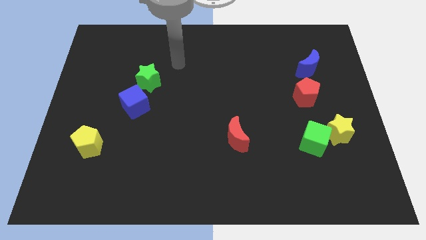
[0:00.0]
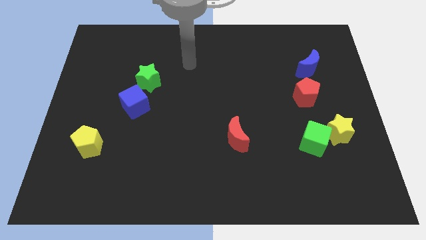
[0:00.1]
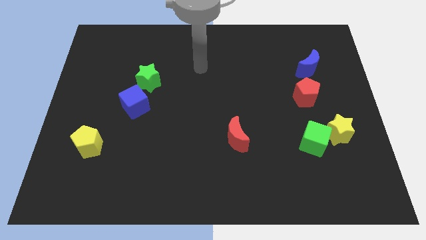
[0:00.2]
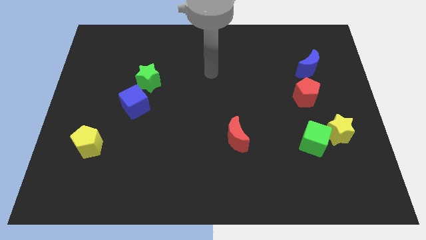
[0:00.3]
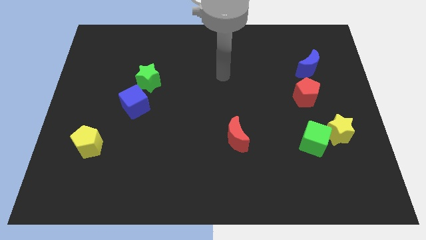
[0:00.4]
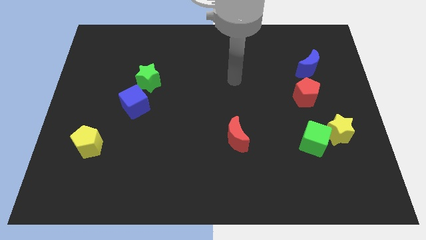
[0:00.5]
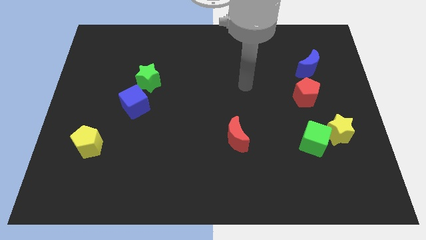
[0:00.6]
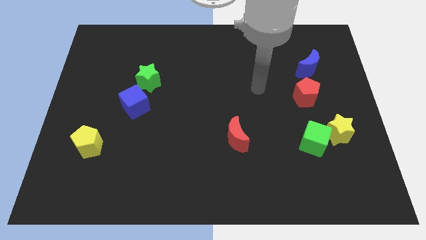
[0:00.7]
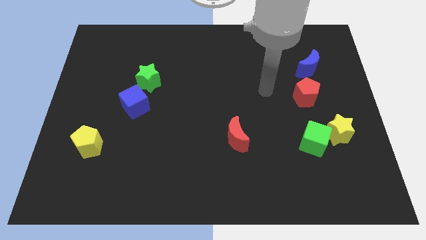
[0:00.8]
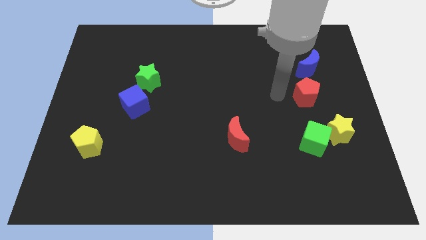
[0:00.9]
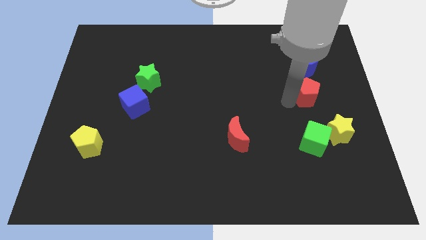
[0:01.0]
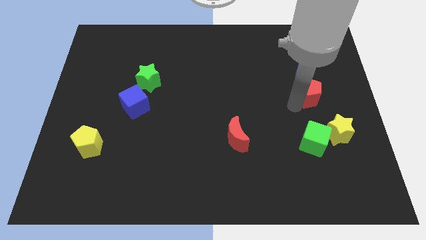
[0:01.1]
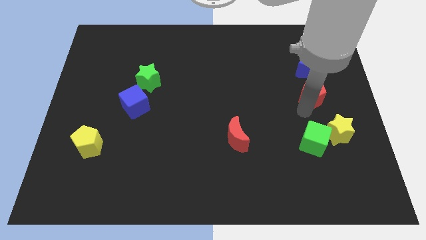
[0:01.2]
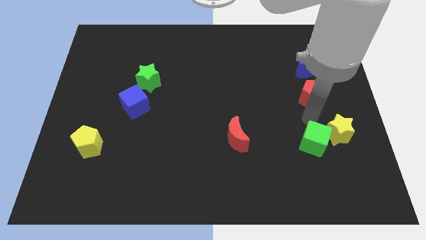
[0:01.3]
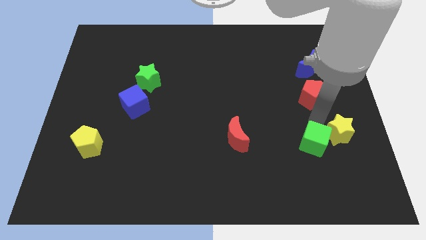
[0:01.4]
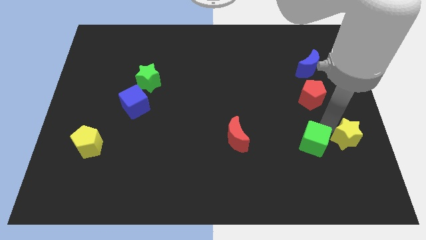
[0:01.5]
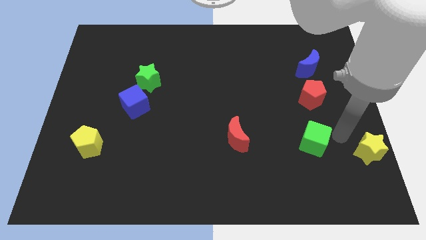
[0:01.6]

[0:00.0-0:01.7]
pull the green cube apart from the yellow star

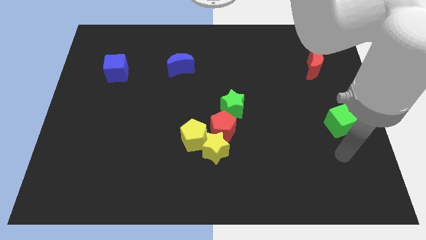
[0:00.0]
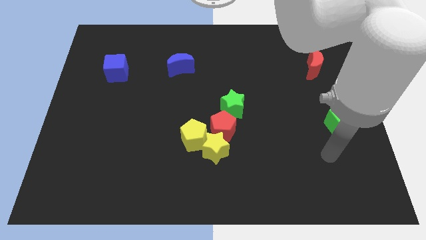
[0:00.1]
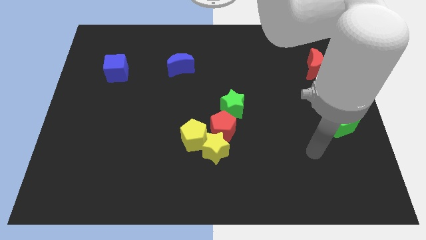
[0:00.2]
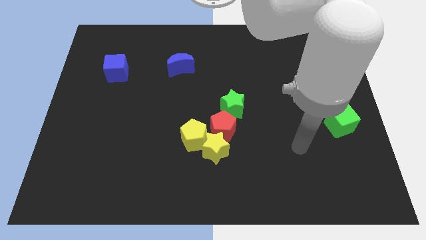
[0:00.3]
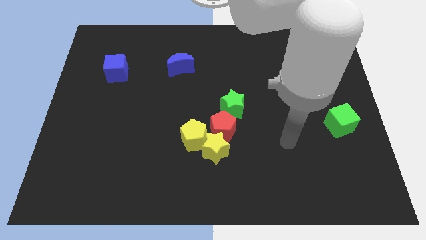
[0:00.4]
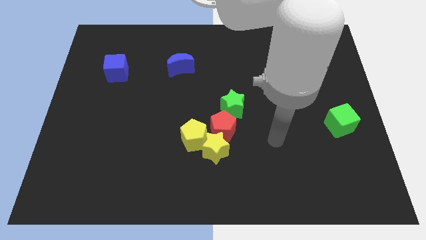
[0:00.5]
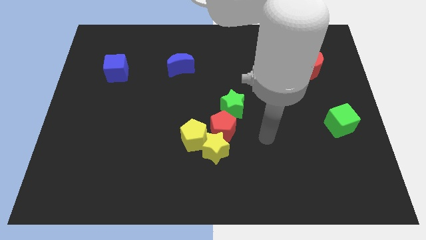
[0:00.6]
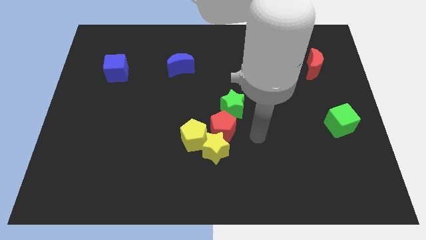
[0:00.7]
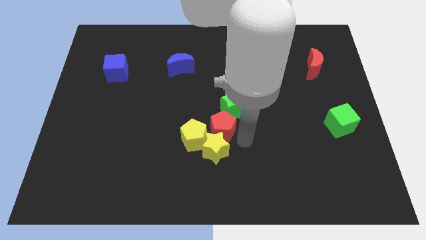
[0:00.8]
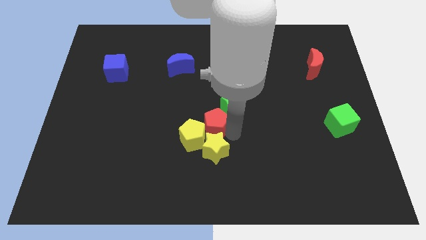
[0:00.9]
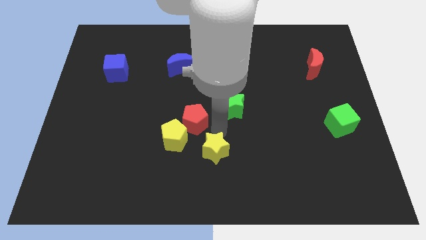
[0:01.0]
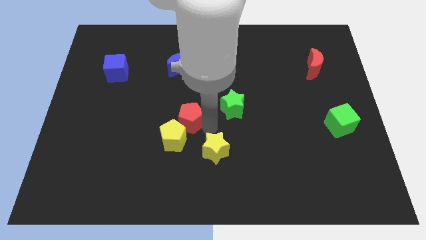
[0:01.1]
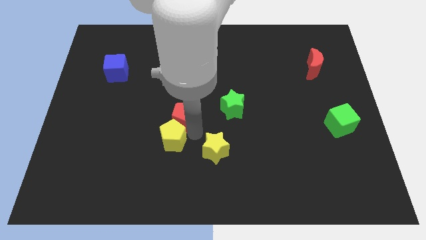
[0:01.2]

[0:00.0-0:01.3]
move the yellow star away from the red pentagon and yellow pentagon

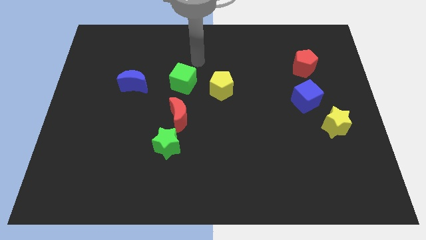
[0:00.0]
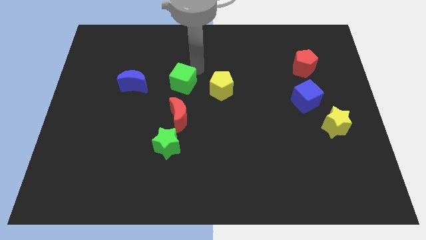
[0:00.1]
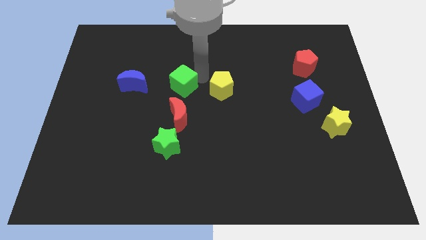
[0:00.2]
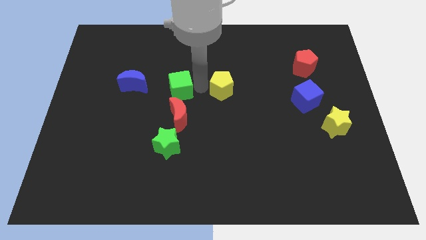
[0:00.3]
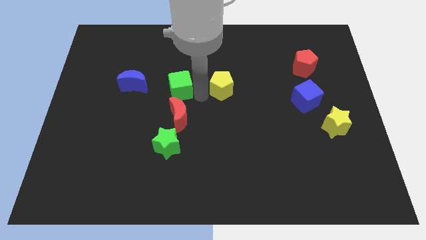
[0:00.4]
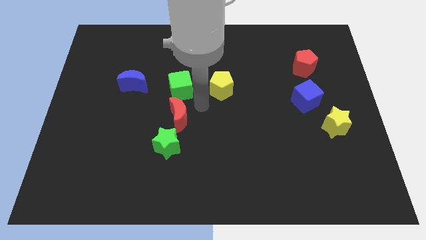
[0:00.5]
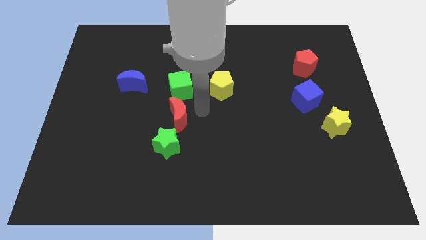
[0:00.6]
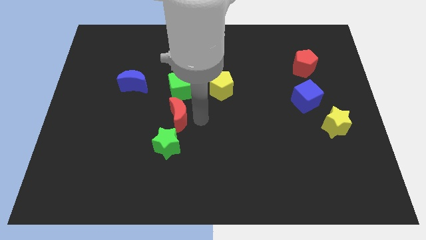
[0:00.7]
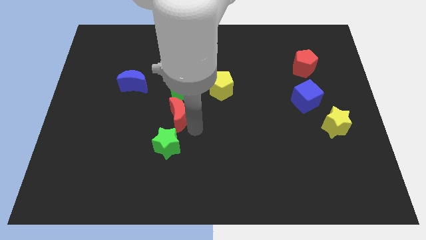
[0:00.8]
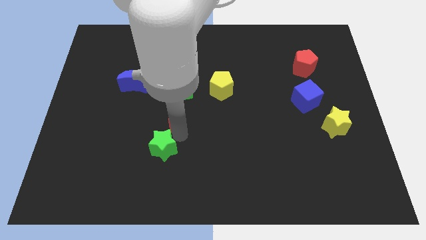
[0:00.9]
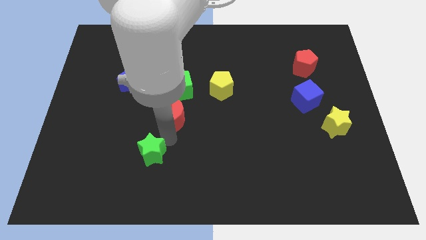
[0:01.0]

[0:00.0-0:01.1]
move the red moon away from the green star

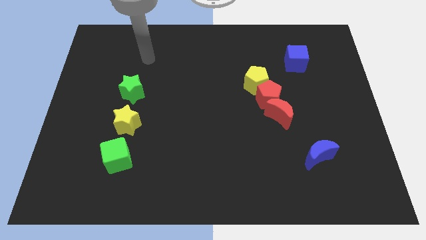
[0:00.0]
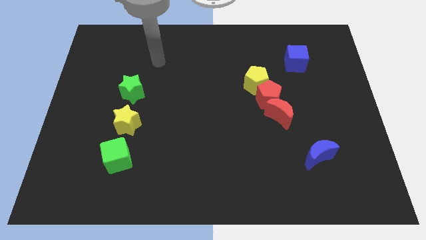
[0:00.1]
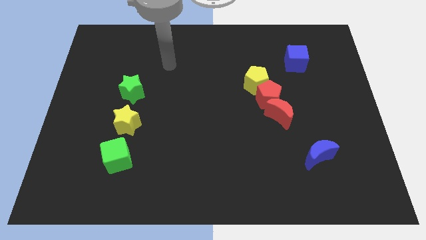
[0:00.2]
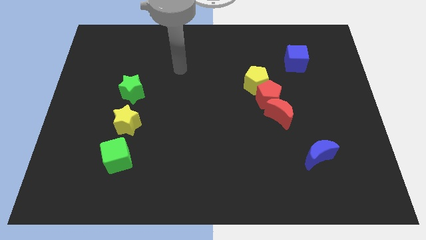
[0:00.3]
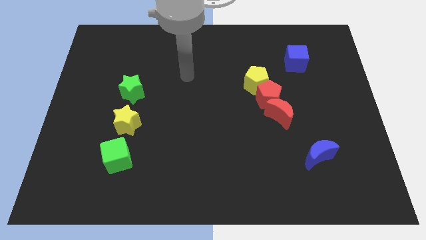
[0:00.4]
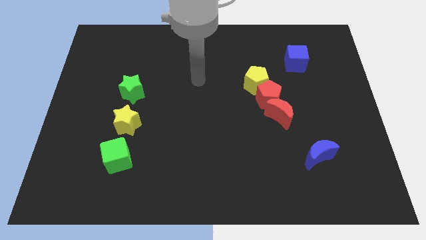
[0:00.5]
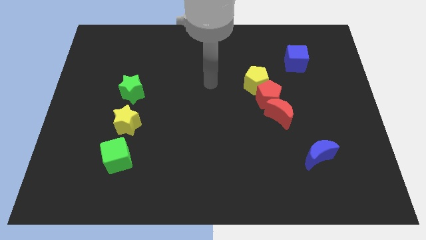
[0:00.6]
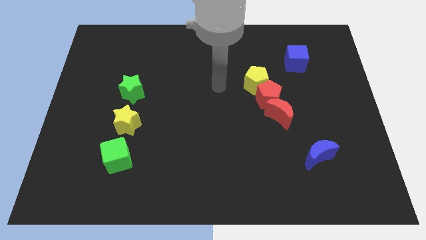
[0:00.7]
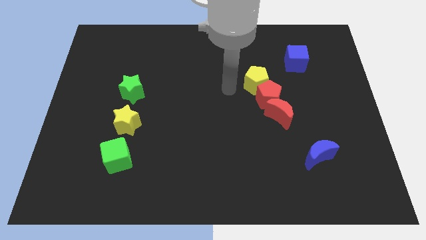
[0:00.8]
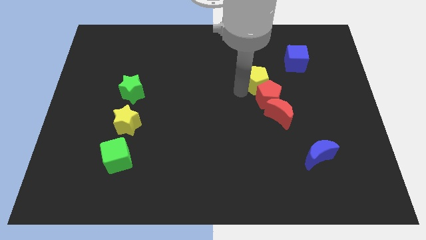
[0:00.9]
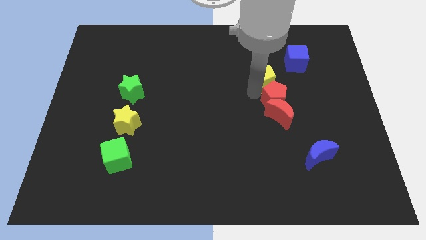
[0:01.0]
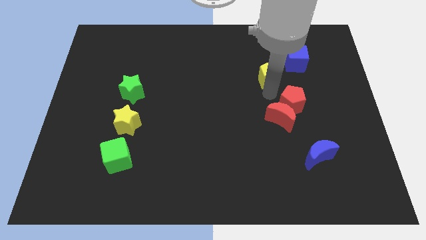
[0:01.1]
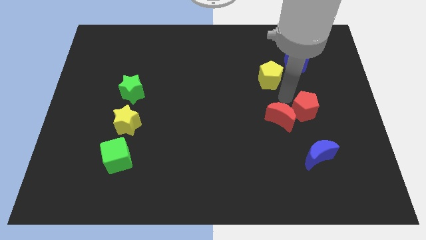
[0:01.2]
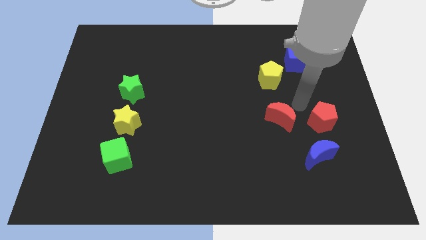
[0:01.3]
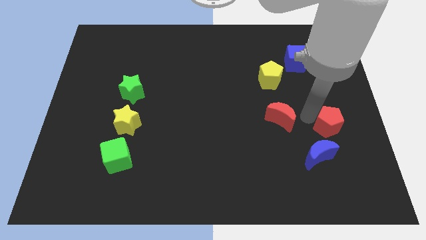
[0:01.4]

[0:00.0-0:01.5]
pull the red moon apart from the red pentagon

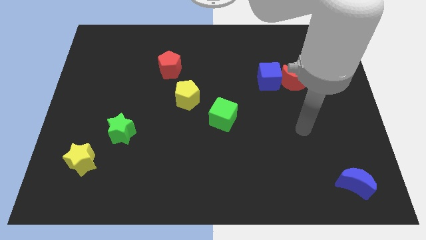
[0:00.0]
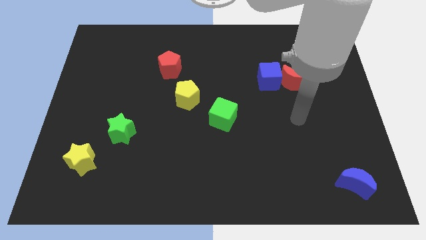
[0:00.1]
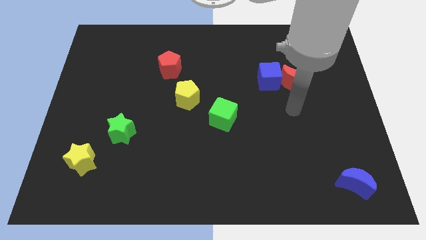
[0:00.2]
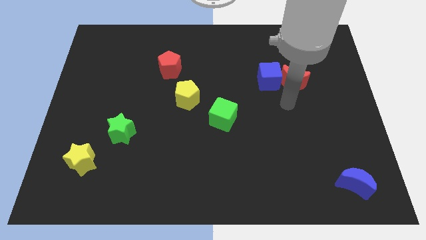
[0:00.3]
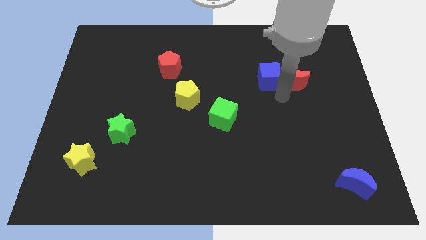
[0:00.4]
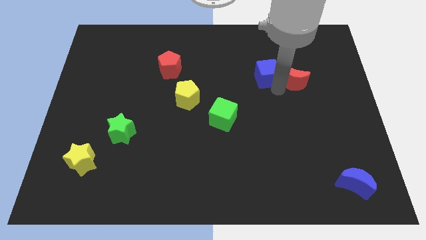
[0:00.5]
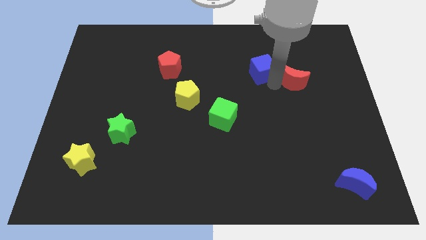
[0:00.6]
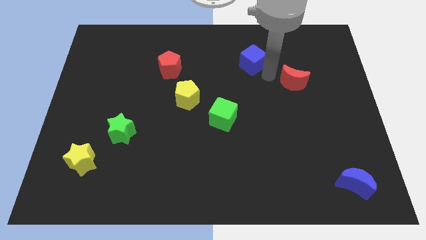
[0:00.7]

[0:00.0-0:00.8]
move the red moon away from the blue cube

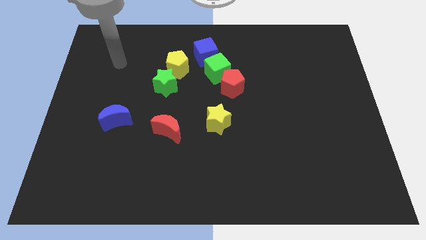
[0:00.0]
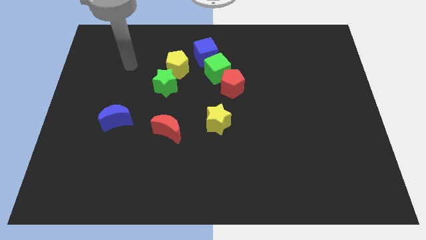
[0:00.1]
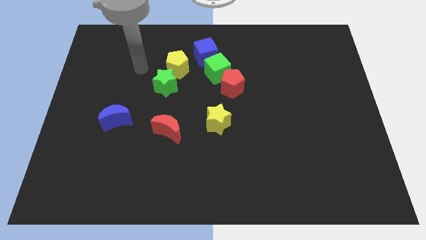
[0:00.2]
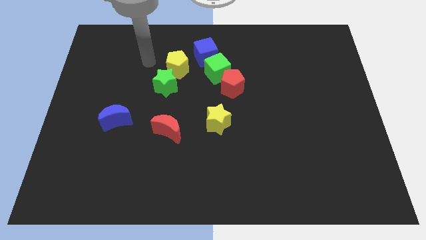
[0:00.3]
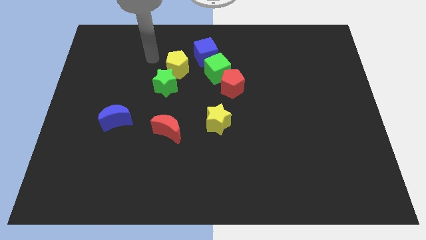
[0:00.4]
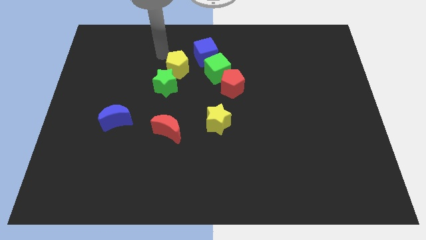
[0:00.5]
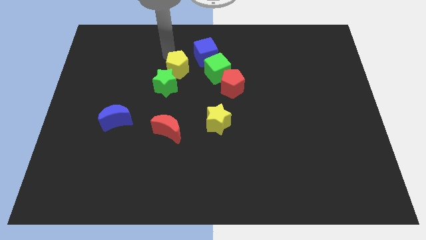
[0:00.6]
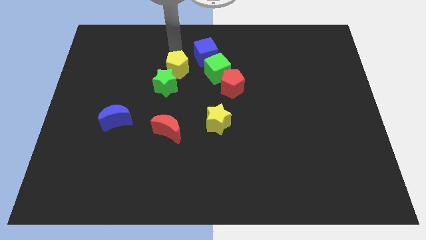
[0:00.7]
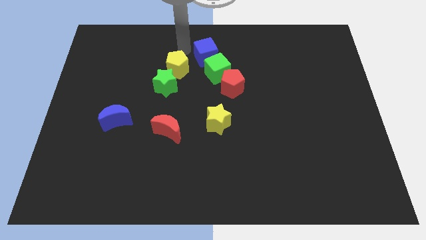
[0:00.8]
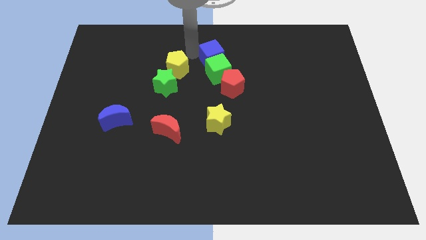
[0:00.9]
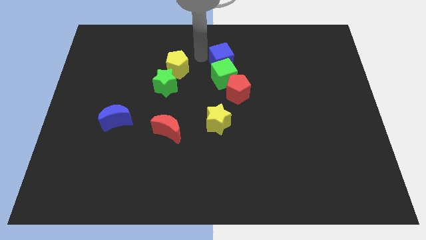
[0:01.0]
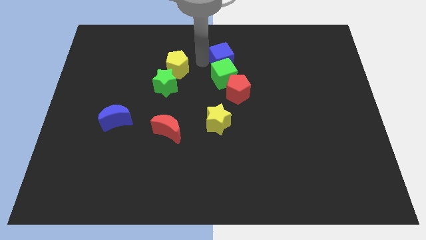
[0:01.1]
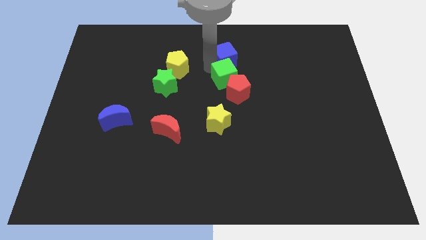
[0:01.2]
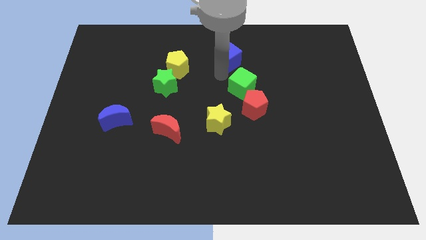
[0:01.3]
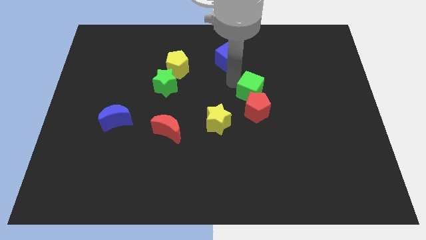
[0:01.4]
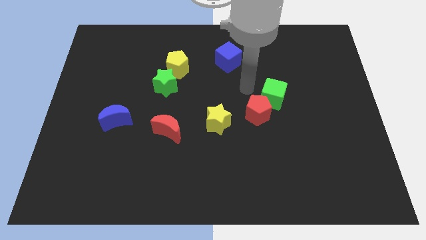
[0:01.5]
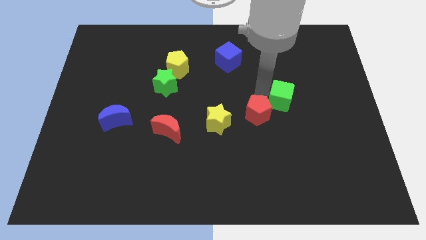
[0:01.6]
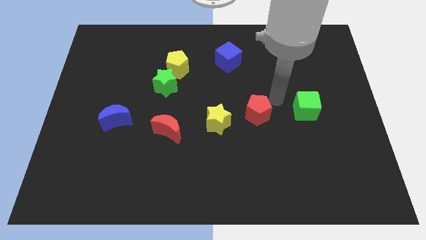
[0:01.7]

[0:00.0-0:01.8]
move the red pentagon away from the green cube

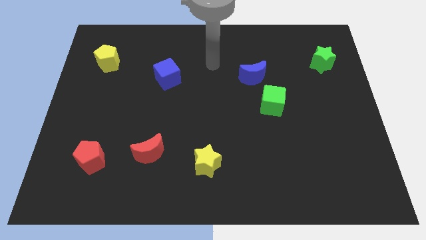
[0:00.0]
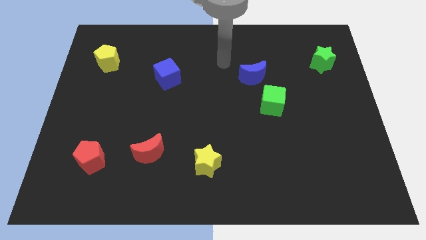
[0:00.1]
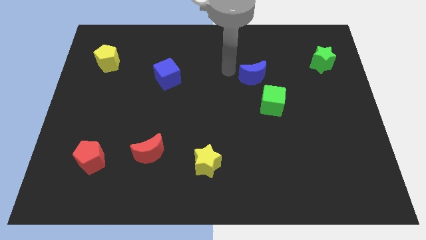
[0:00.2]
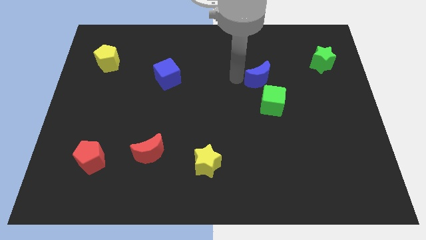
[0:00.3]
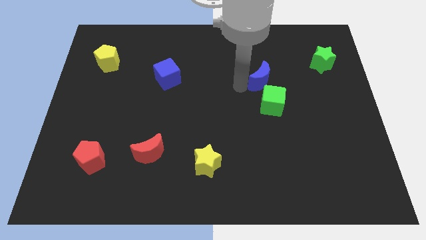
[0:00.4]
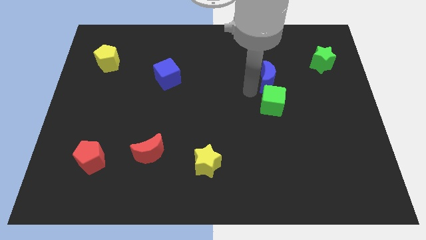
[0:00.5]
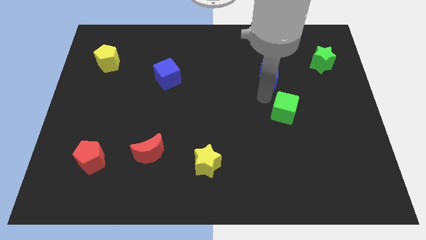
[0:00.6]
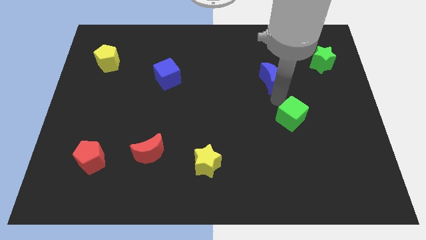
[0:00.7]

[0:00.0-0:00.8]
pull the blue moon apart from the green cube

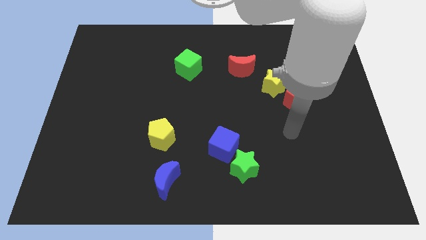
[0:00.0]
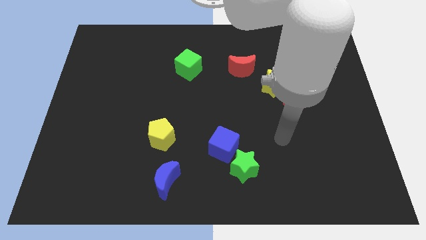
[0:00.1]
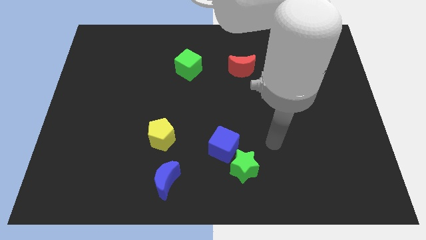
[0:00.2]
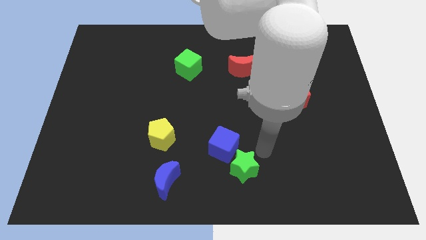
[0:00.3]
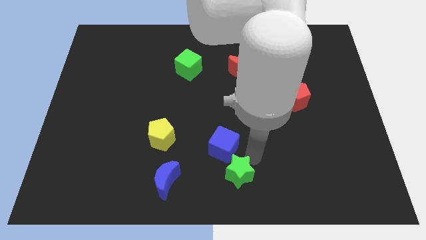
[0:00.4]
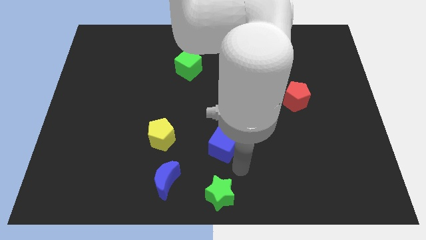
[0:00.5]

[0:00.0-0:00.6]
pull the blue cube apart from the green star
